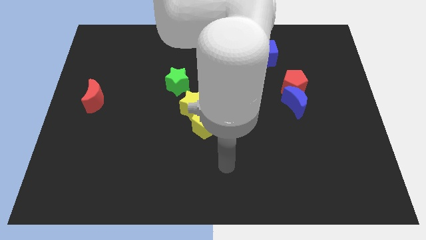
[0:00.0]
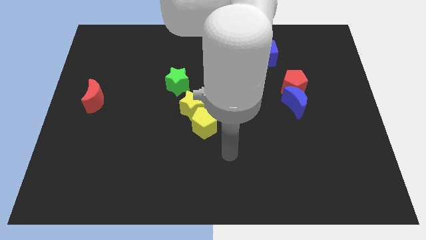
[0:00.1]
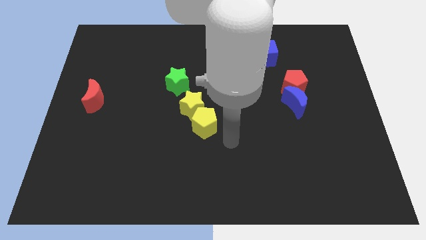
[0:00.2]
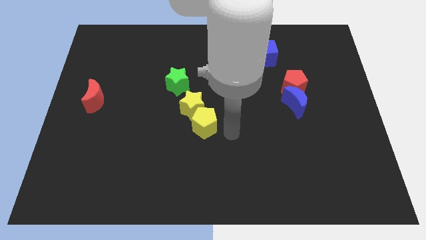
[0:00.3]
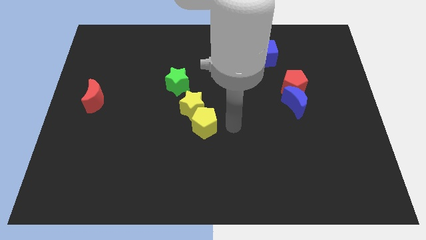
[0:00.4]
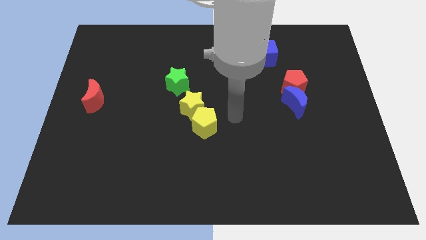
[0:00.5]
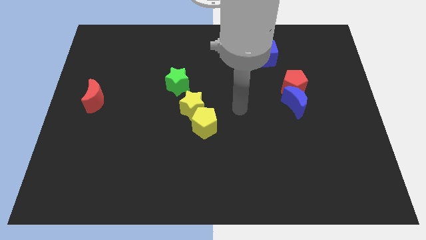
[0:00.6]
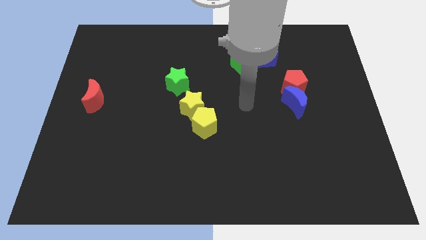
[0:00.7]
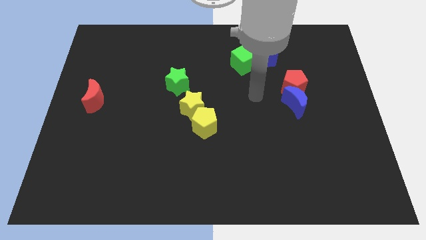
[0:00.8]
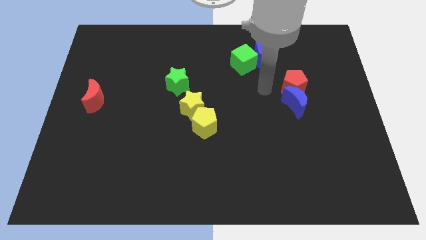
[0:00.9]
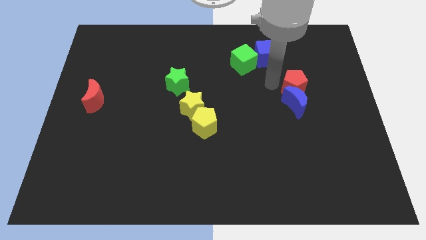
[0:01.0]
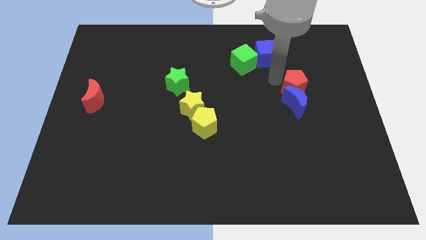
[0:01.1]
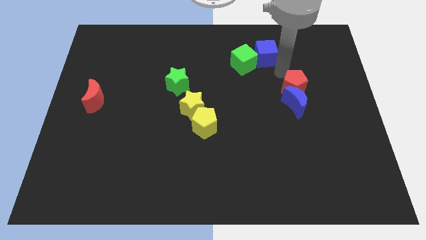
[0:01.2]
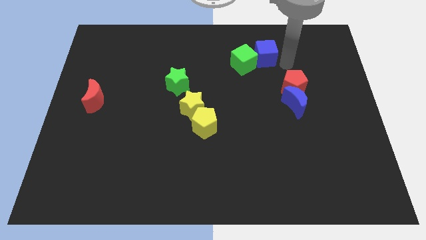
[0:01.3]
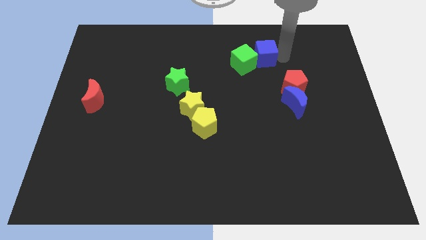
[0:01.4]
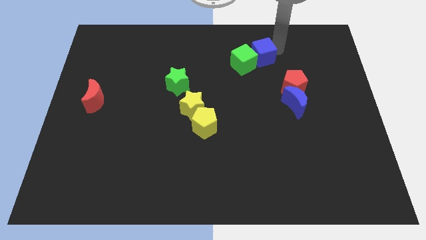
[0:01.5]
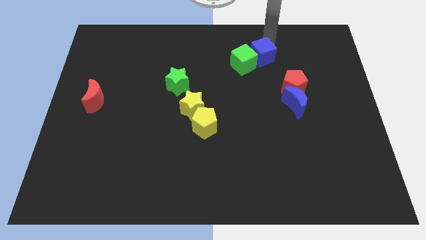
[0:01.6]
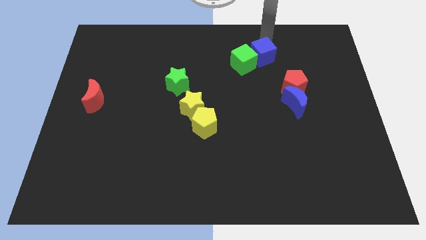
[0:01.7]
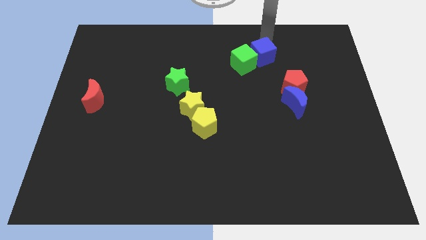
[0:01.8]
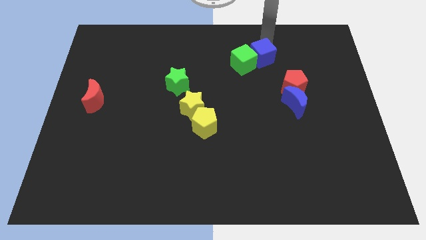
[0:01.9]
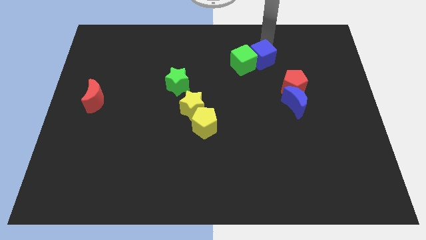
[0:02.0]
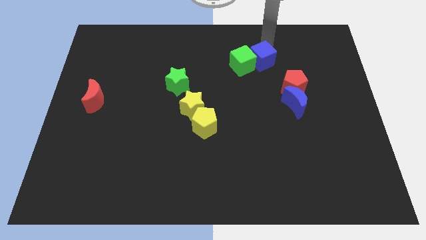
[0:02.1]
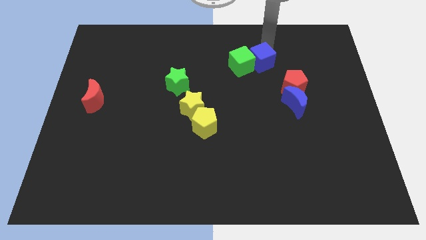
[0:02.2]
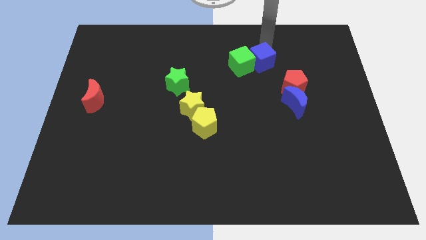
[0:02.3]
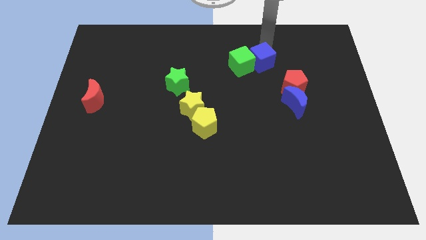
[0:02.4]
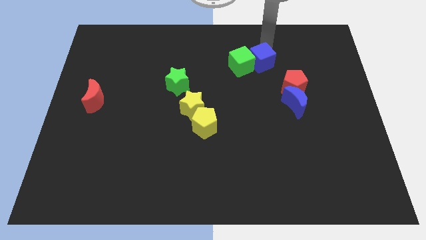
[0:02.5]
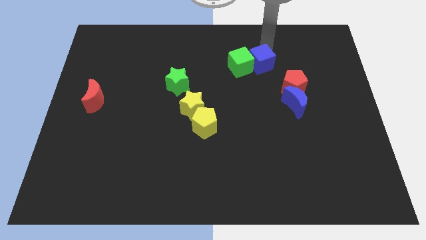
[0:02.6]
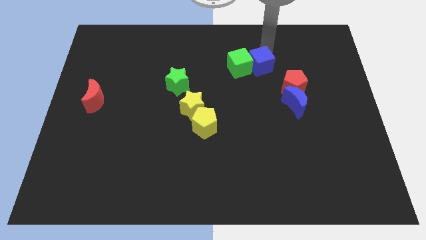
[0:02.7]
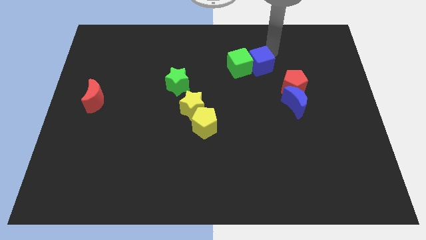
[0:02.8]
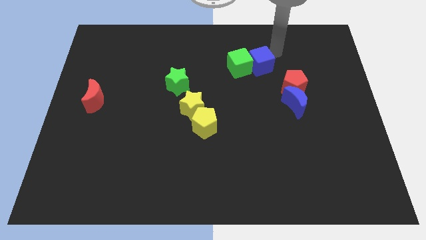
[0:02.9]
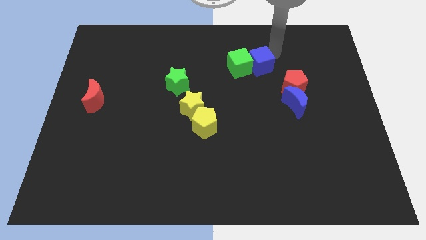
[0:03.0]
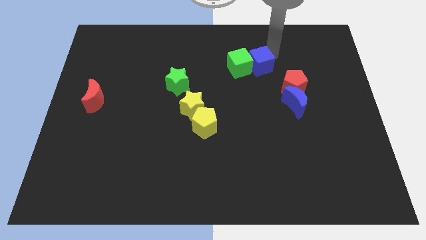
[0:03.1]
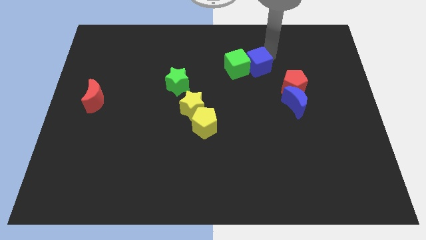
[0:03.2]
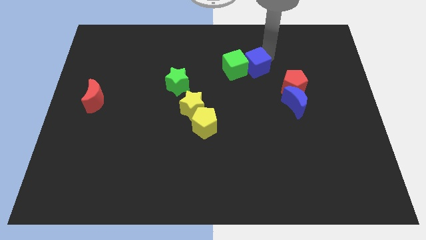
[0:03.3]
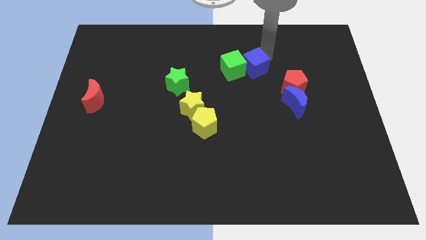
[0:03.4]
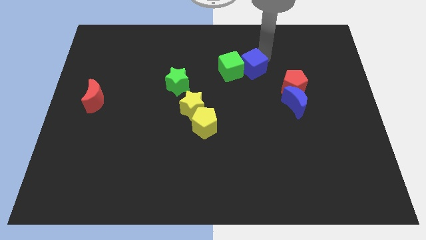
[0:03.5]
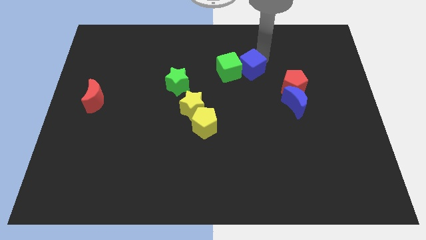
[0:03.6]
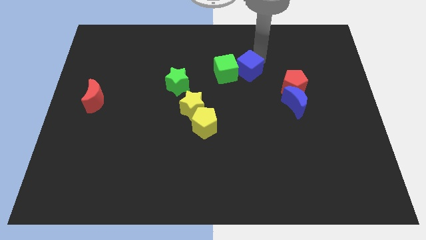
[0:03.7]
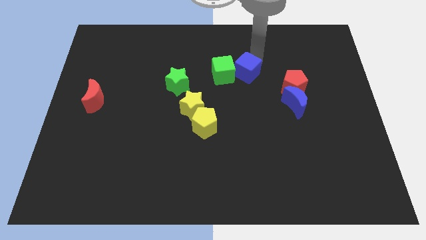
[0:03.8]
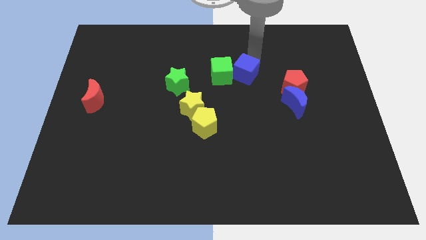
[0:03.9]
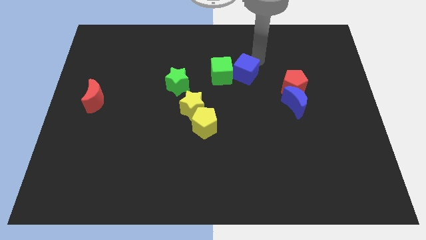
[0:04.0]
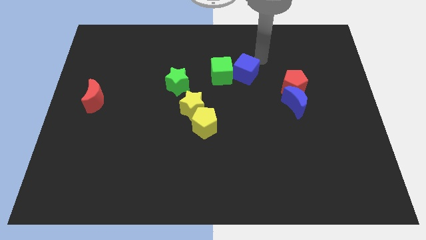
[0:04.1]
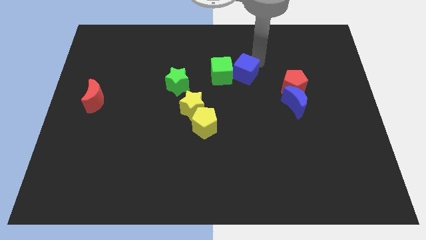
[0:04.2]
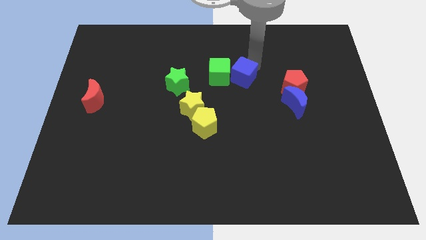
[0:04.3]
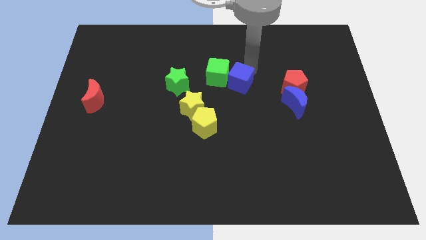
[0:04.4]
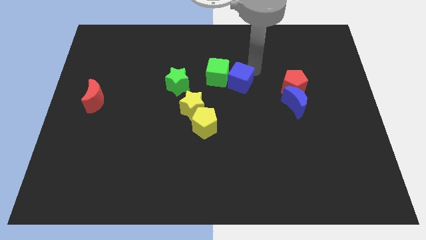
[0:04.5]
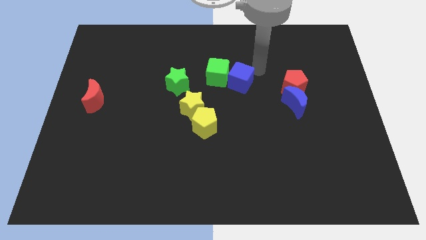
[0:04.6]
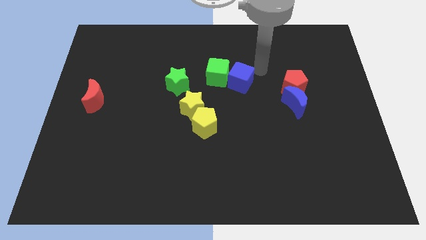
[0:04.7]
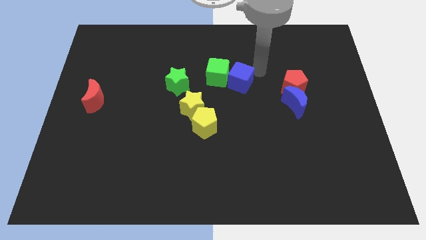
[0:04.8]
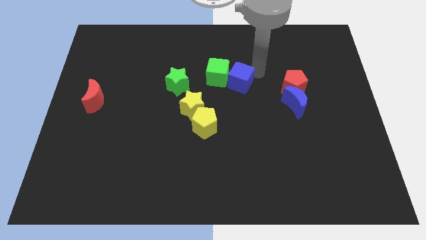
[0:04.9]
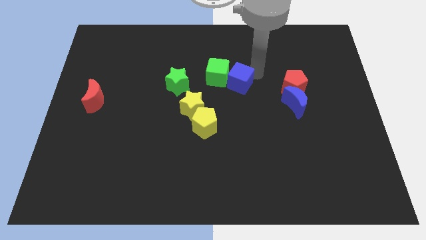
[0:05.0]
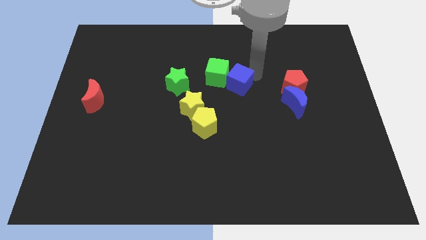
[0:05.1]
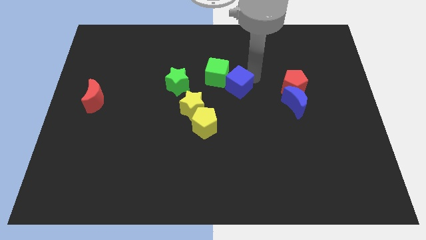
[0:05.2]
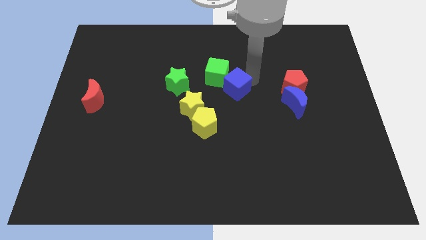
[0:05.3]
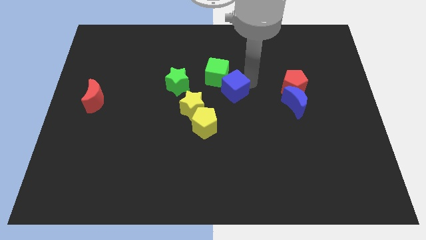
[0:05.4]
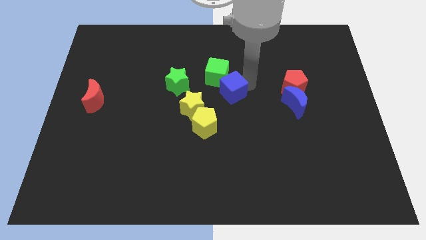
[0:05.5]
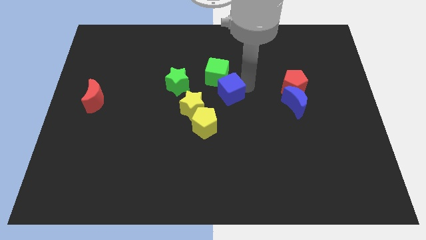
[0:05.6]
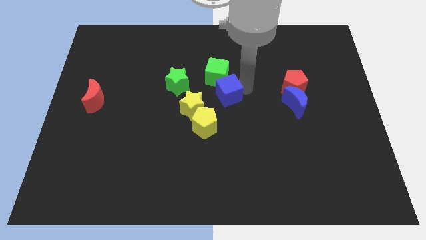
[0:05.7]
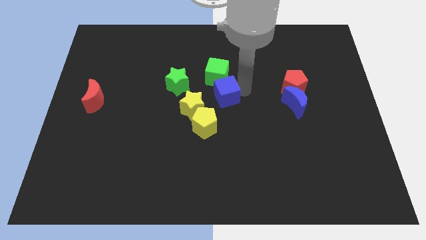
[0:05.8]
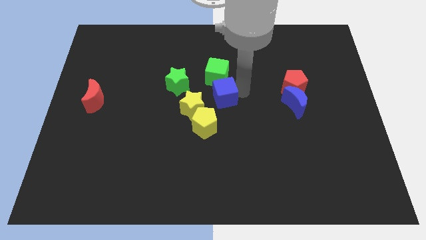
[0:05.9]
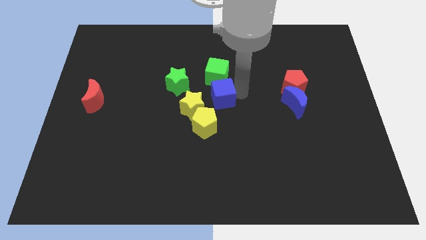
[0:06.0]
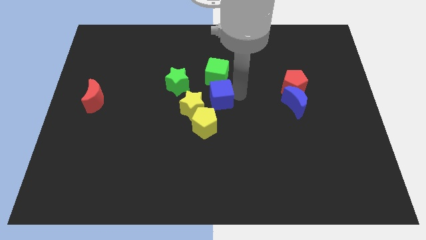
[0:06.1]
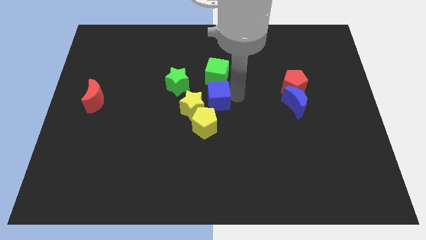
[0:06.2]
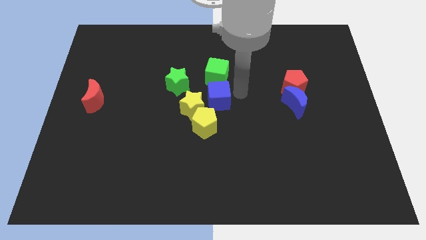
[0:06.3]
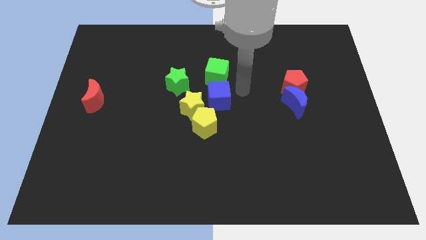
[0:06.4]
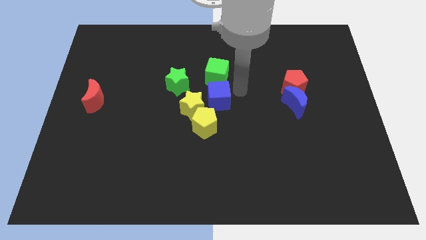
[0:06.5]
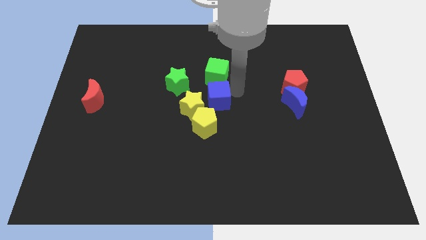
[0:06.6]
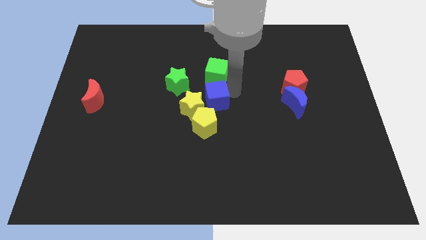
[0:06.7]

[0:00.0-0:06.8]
move the blue cube to the yellow star

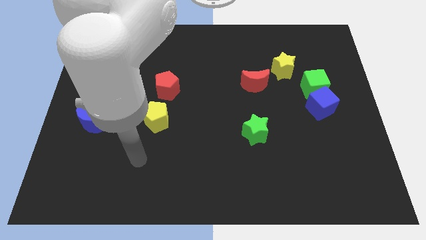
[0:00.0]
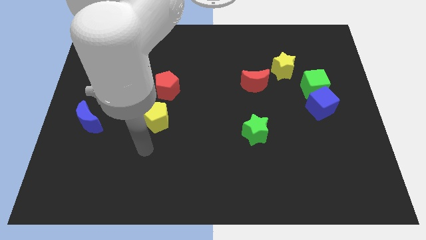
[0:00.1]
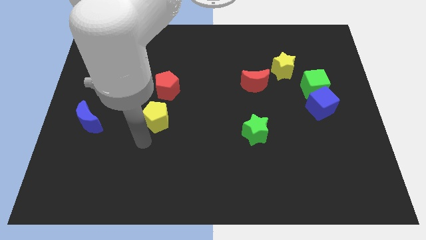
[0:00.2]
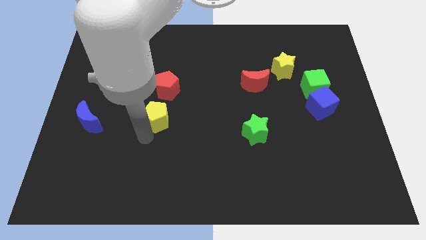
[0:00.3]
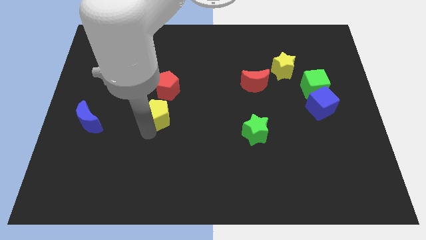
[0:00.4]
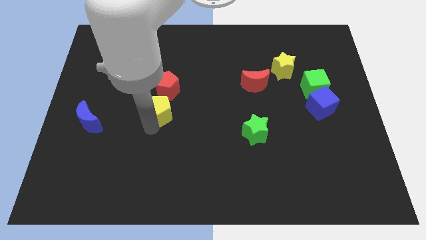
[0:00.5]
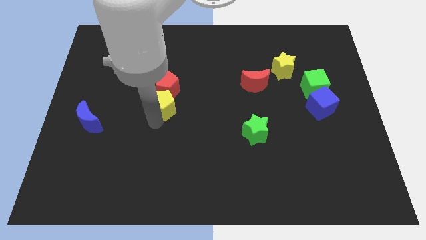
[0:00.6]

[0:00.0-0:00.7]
push the yellow pentagon to the red pentagon
